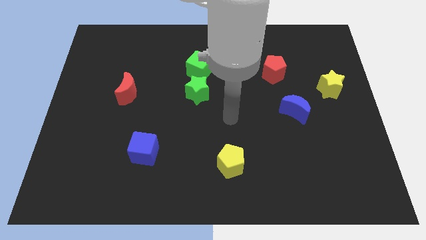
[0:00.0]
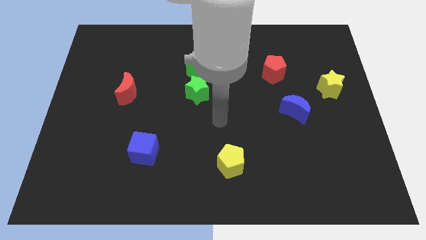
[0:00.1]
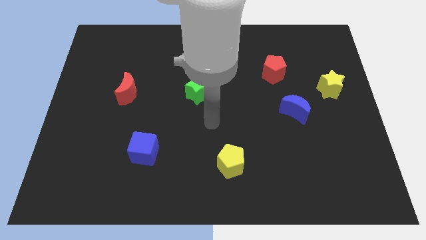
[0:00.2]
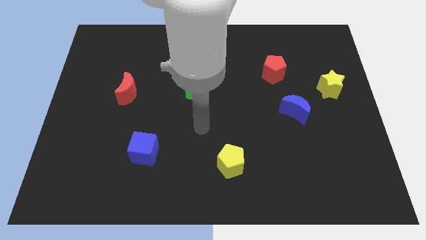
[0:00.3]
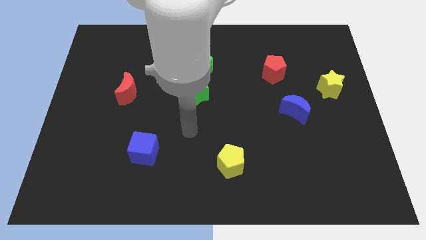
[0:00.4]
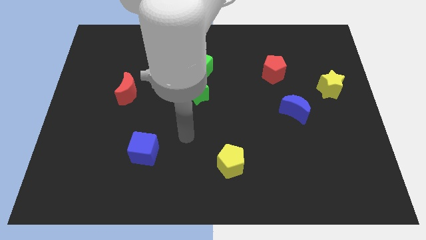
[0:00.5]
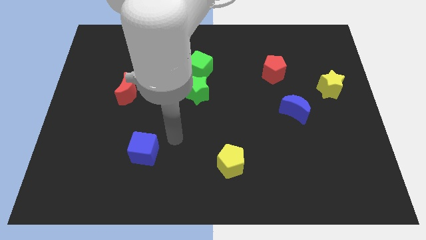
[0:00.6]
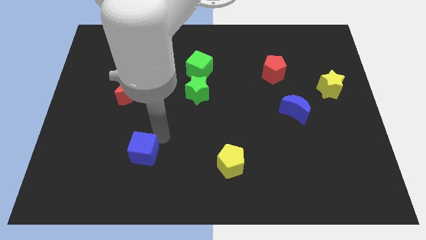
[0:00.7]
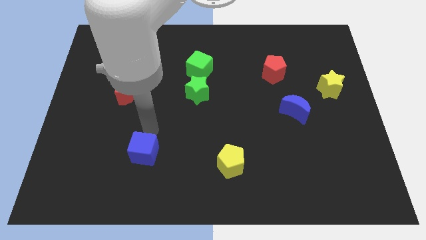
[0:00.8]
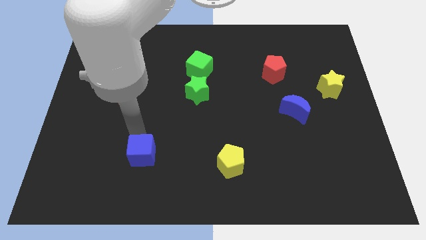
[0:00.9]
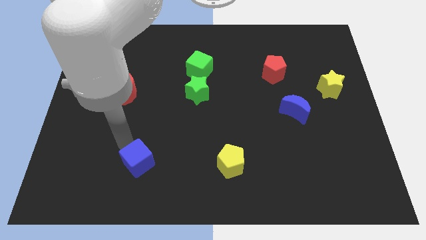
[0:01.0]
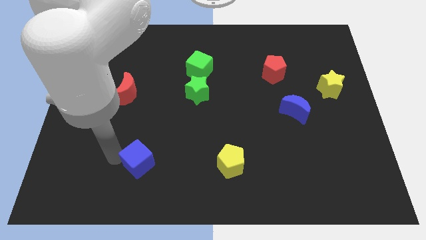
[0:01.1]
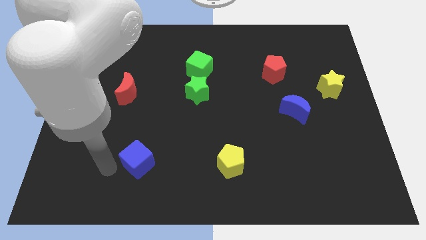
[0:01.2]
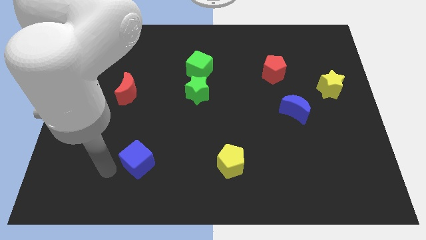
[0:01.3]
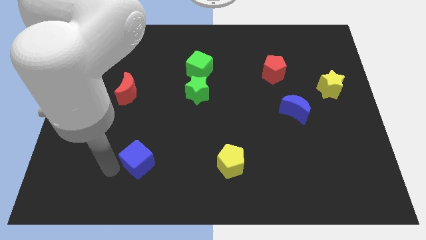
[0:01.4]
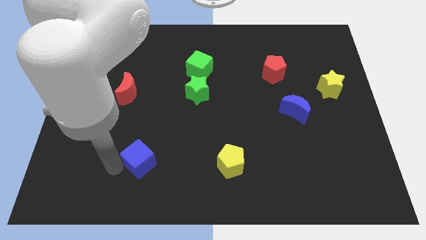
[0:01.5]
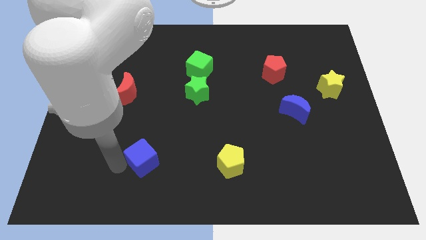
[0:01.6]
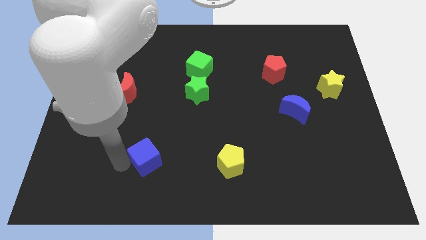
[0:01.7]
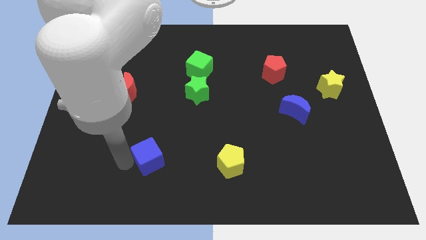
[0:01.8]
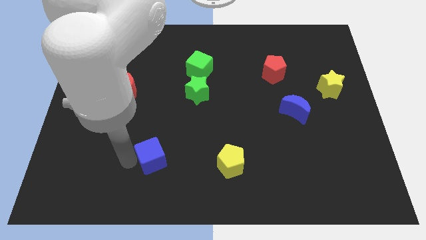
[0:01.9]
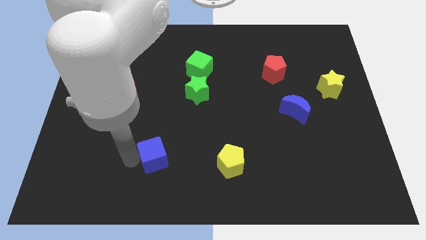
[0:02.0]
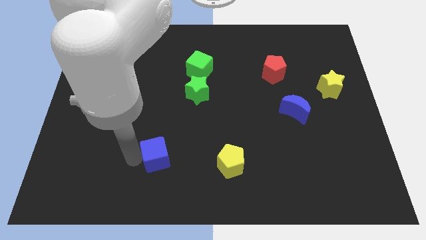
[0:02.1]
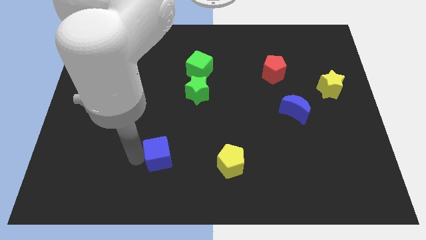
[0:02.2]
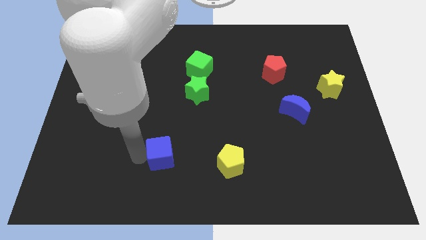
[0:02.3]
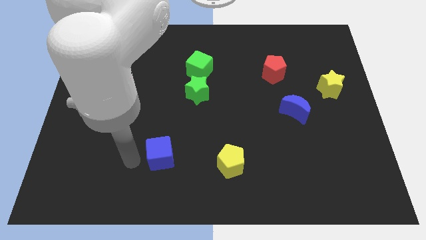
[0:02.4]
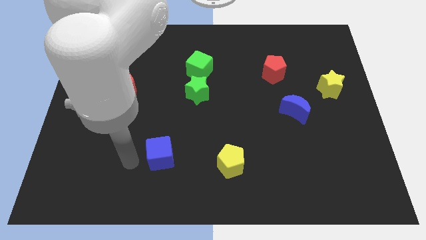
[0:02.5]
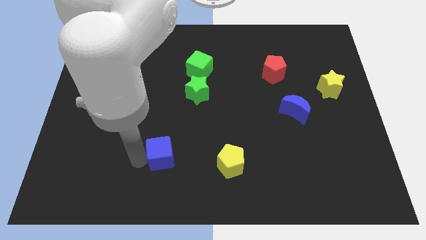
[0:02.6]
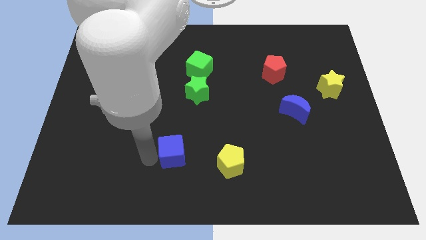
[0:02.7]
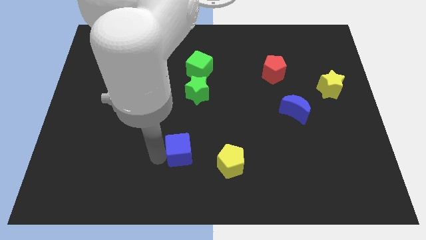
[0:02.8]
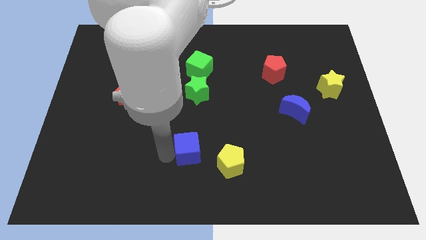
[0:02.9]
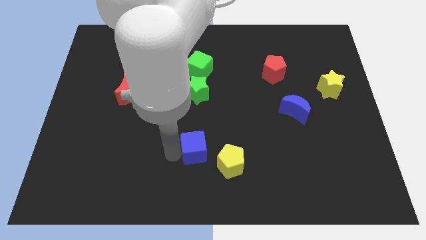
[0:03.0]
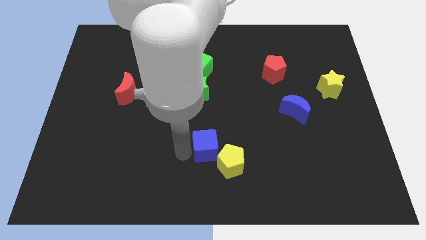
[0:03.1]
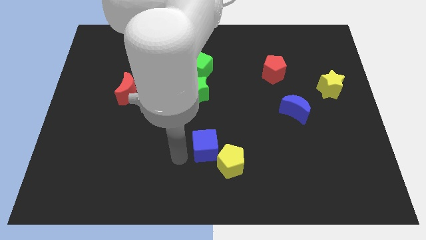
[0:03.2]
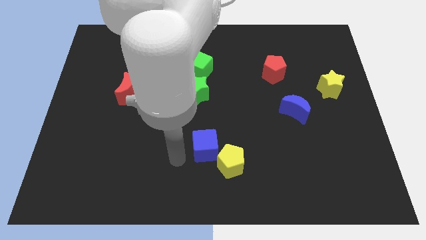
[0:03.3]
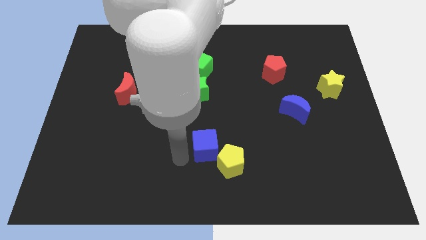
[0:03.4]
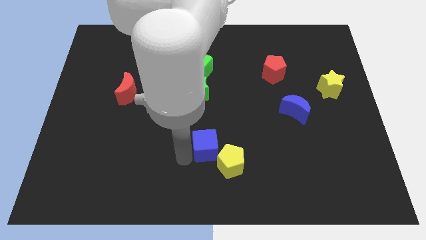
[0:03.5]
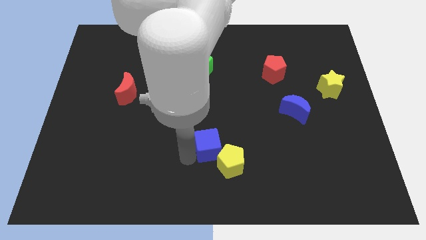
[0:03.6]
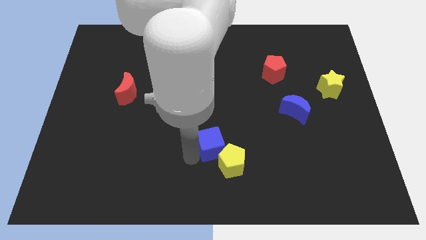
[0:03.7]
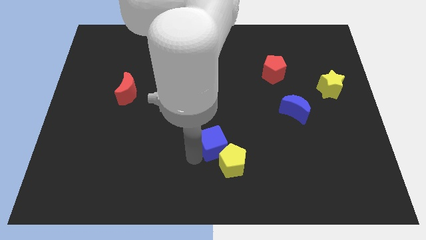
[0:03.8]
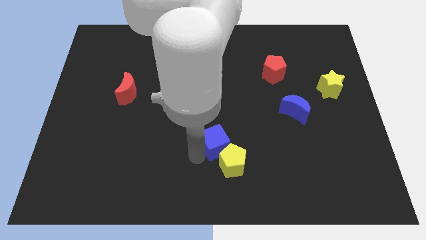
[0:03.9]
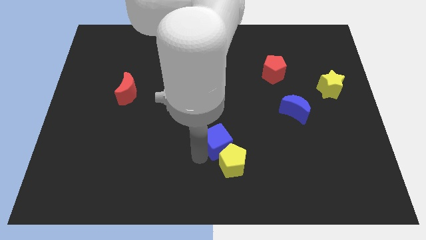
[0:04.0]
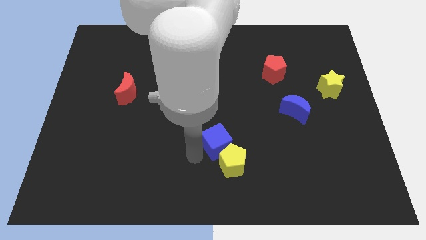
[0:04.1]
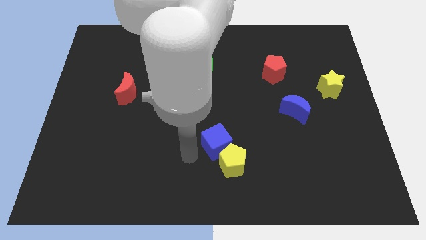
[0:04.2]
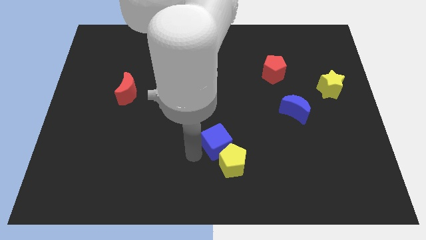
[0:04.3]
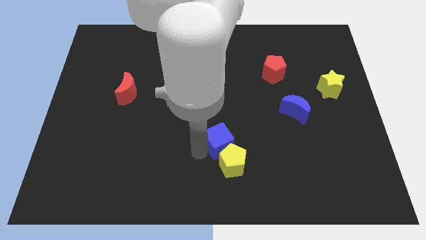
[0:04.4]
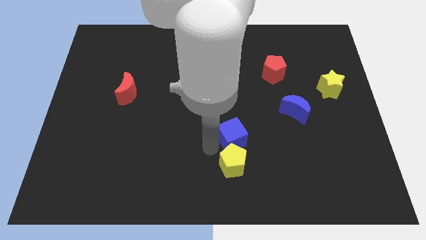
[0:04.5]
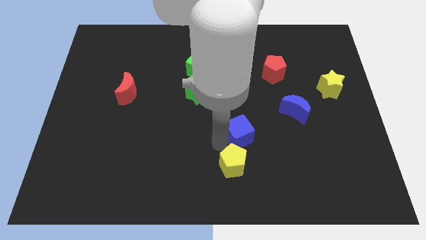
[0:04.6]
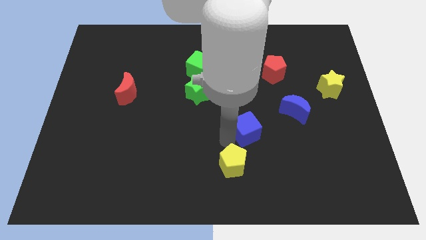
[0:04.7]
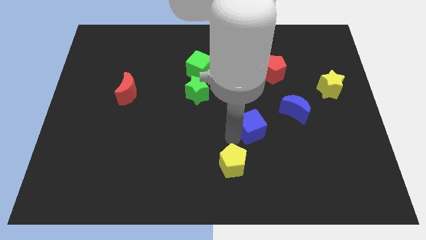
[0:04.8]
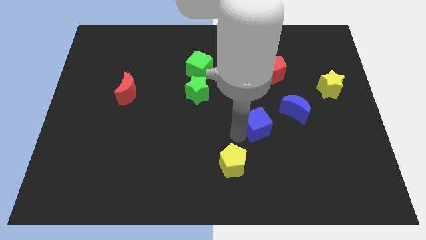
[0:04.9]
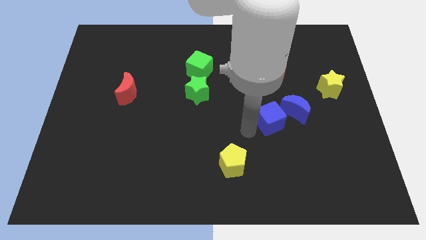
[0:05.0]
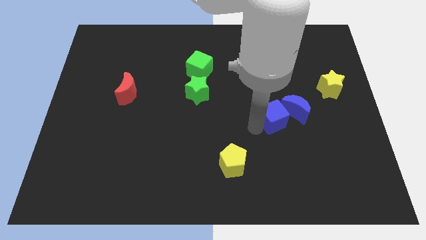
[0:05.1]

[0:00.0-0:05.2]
put the blue cube to the blue moon

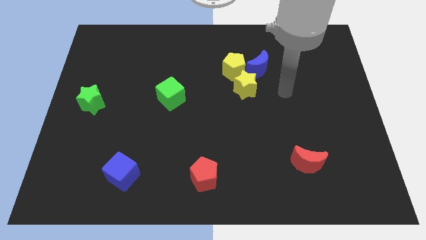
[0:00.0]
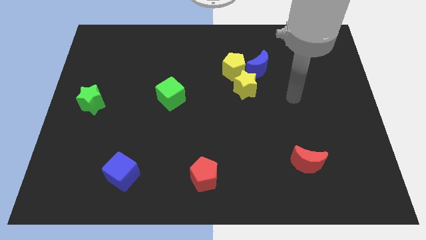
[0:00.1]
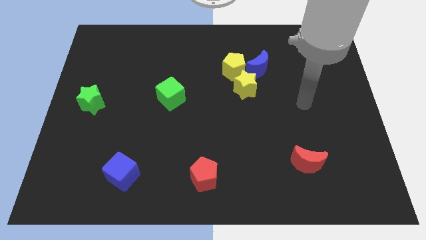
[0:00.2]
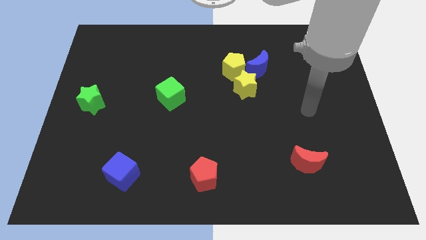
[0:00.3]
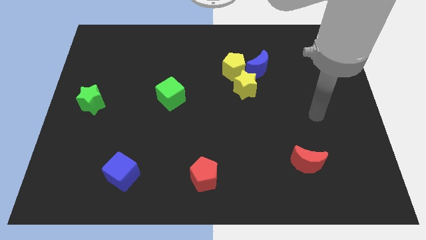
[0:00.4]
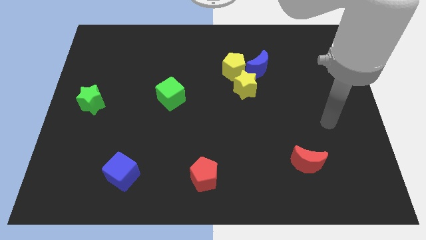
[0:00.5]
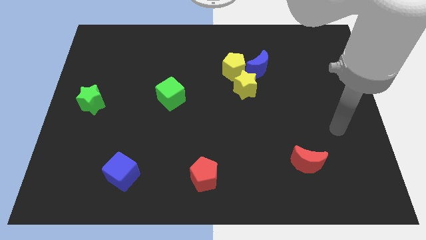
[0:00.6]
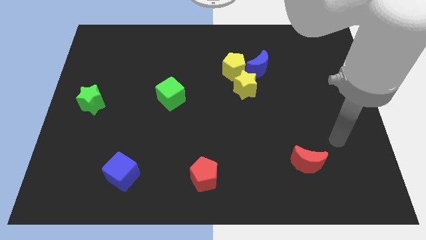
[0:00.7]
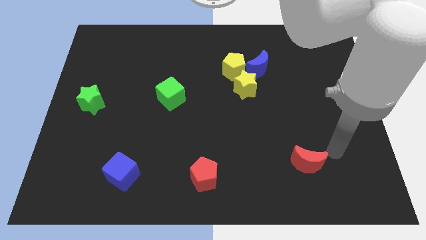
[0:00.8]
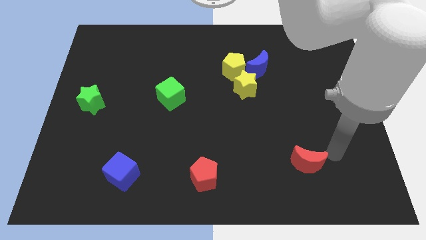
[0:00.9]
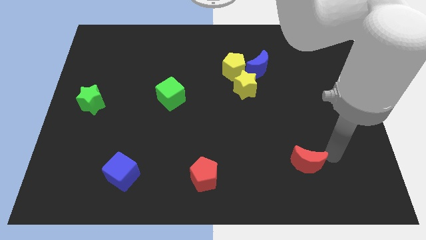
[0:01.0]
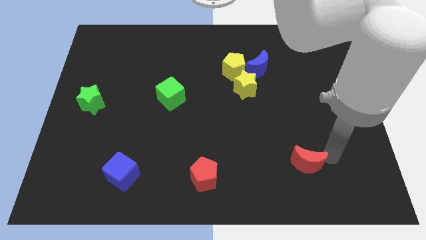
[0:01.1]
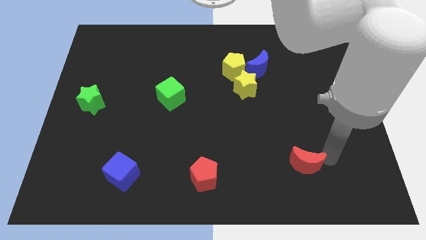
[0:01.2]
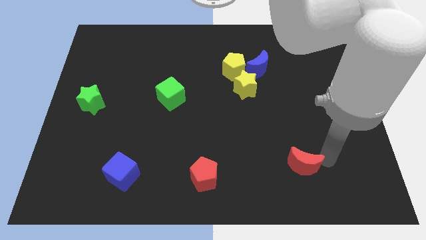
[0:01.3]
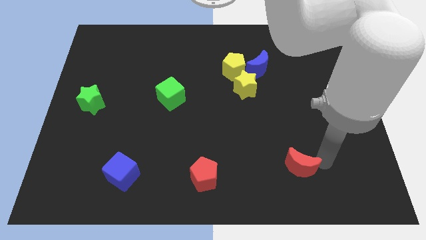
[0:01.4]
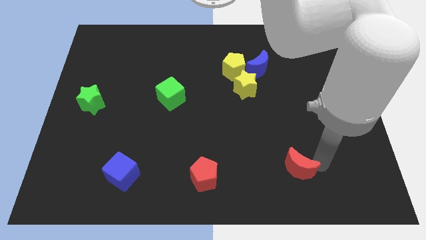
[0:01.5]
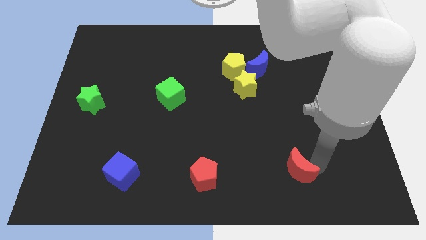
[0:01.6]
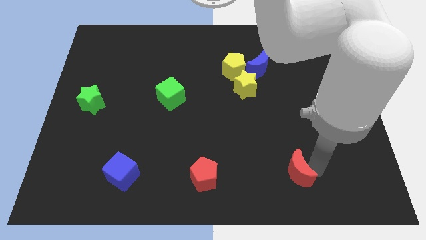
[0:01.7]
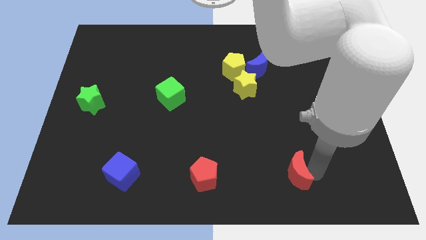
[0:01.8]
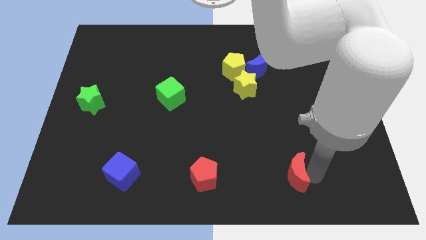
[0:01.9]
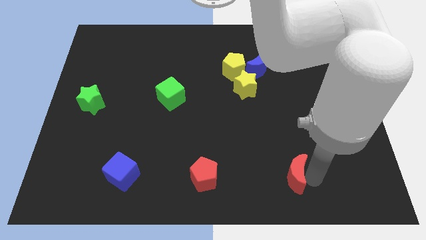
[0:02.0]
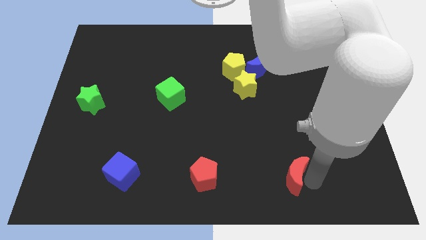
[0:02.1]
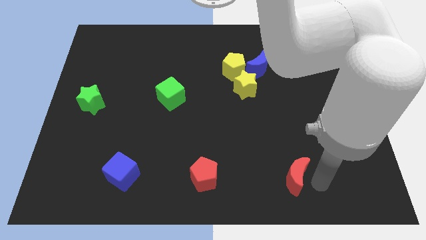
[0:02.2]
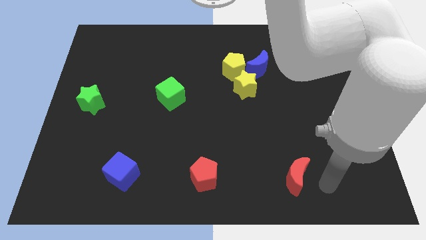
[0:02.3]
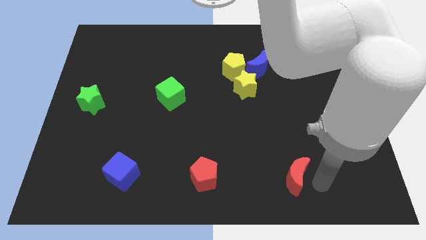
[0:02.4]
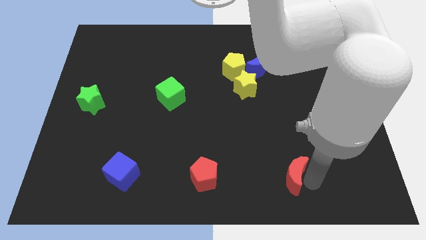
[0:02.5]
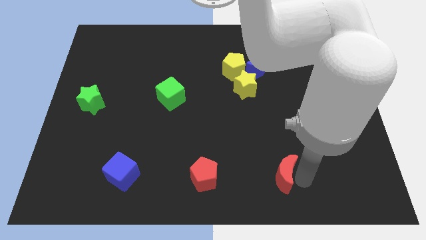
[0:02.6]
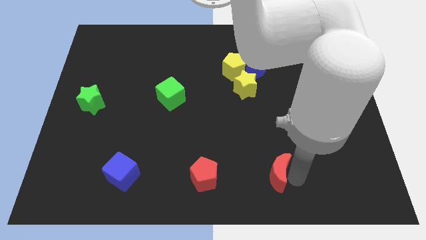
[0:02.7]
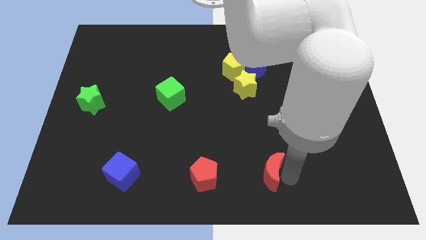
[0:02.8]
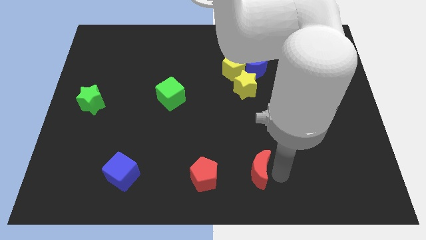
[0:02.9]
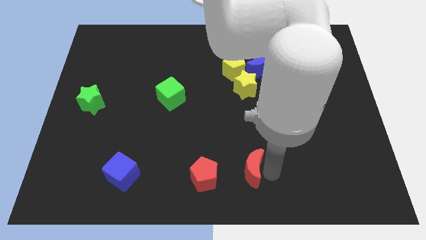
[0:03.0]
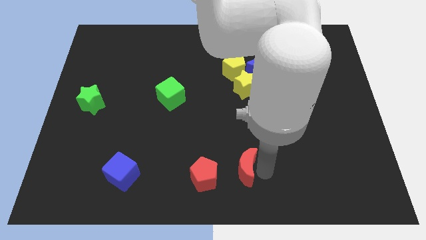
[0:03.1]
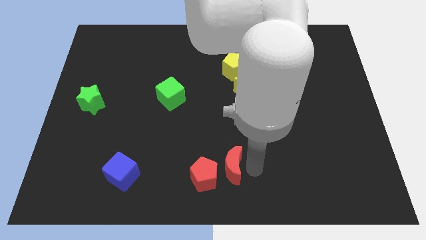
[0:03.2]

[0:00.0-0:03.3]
slide the red moon close to the red pentagon
